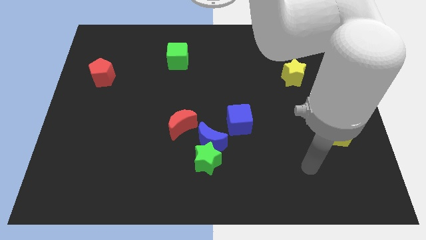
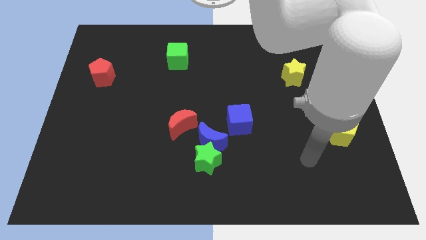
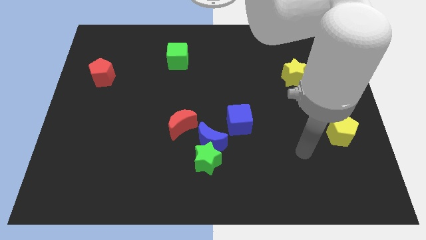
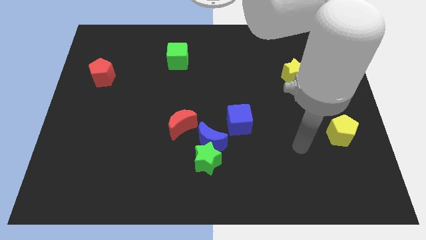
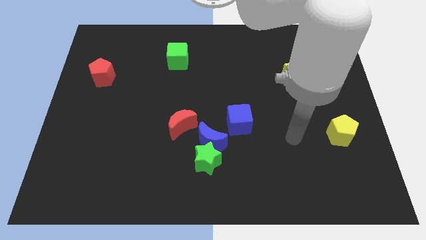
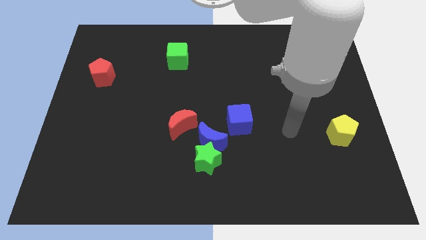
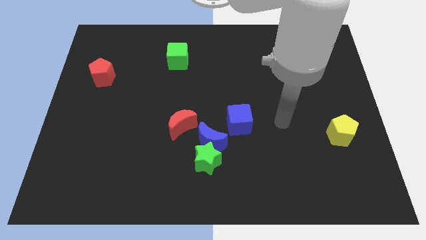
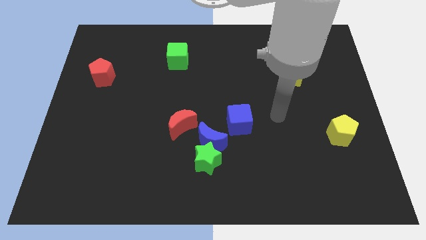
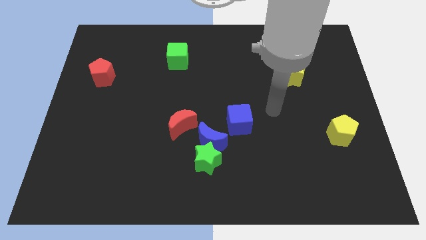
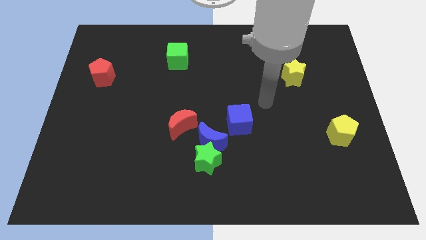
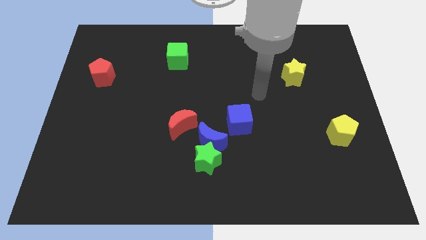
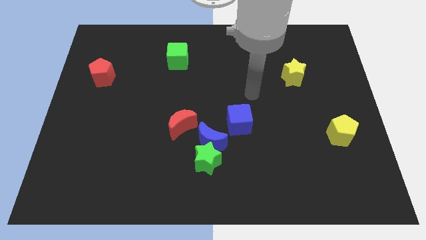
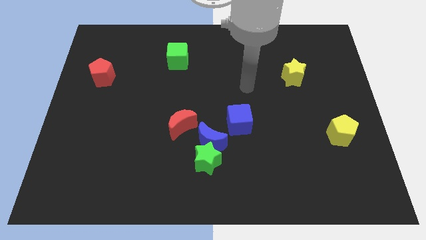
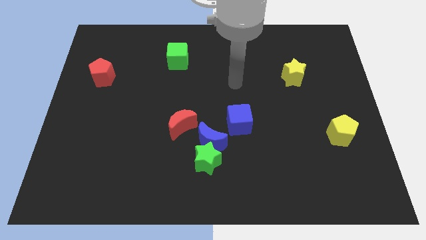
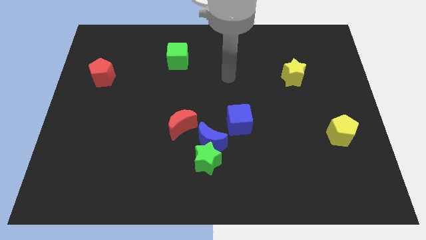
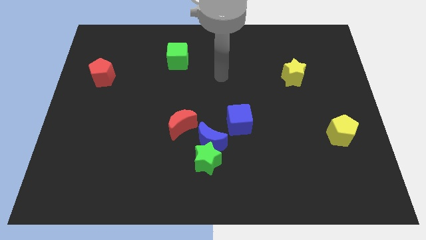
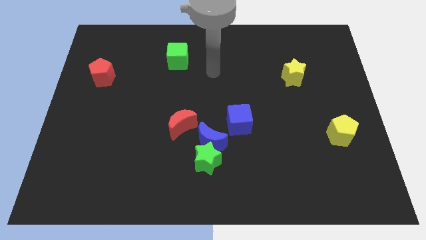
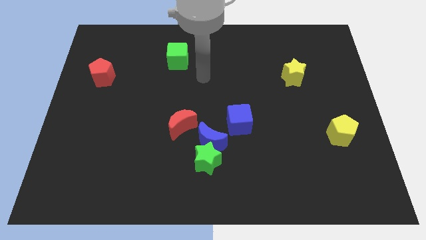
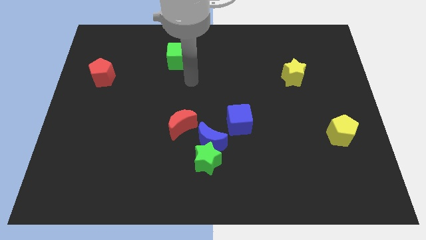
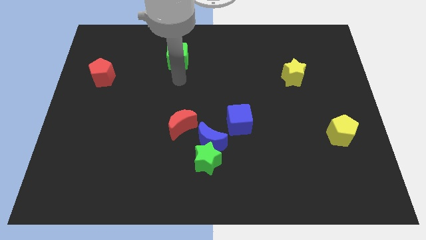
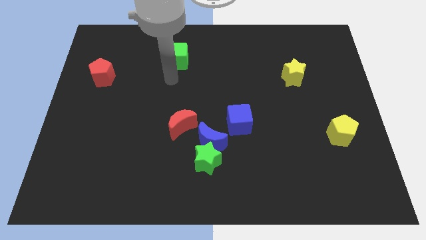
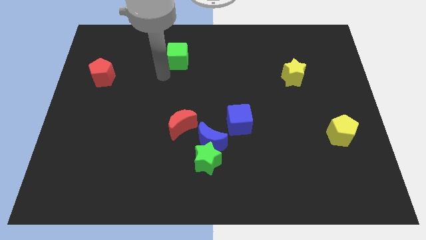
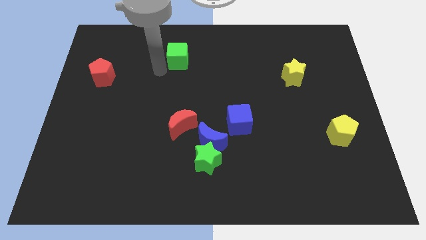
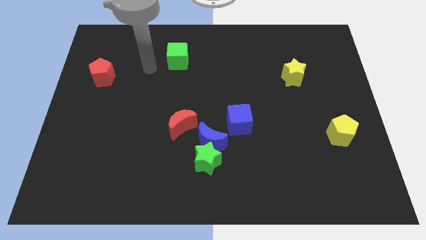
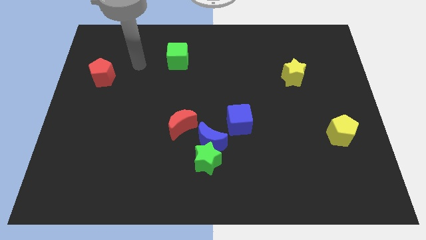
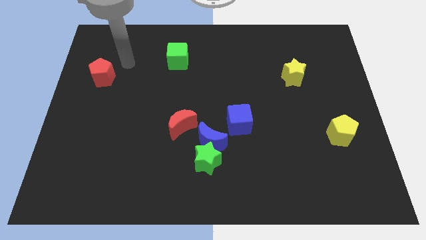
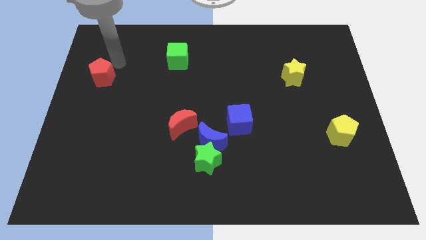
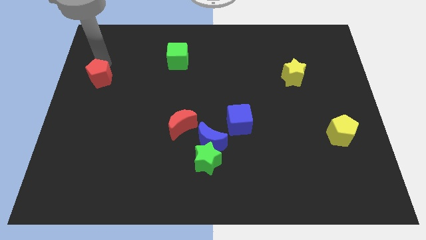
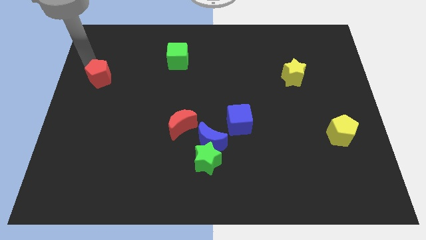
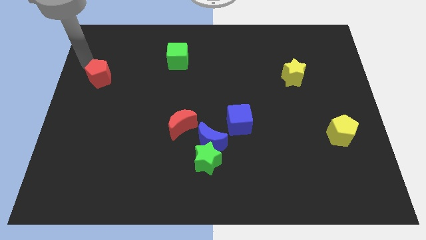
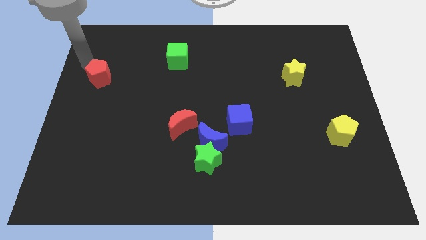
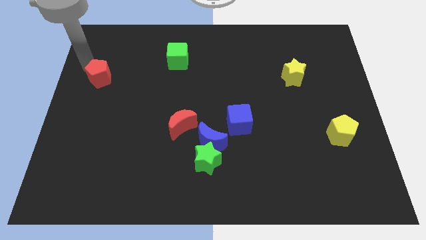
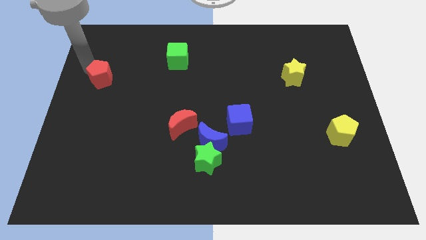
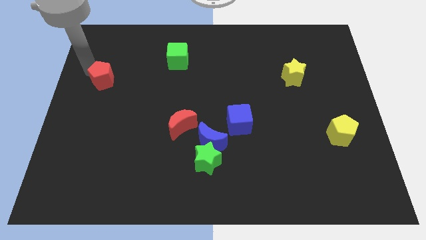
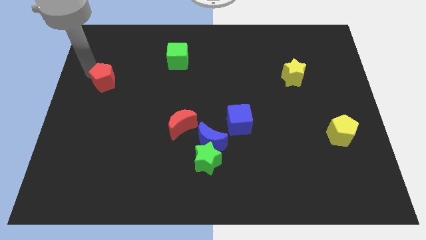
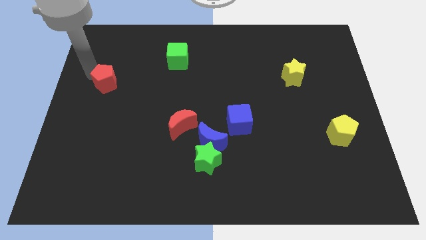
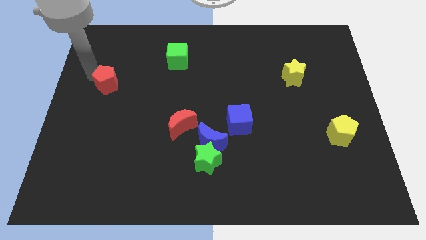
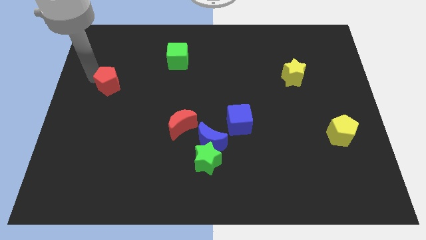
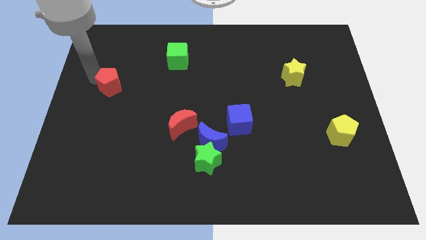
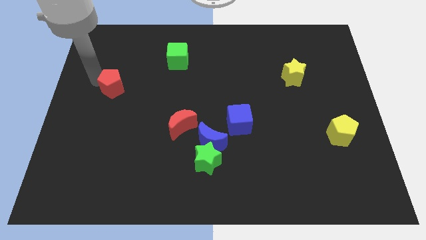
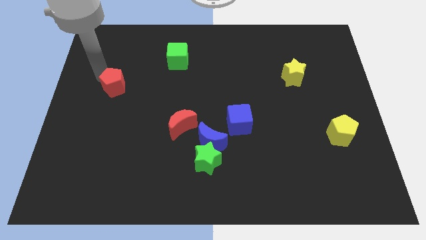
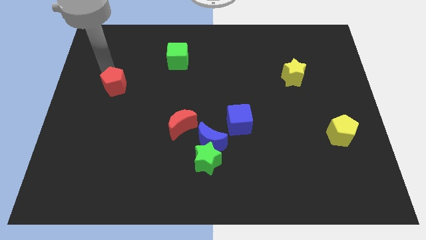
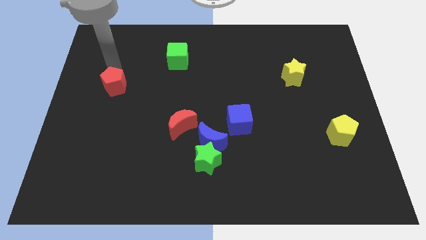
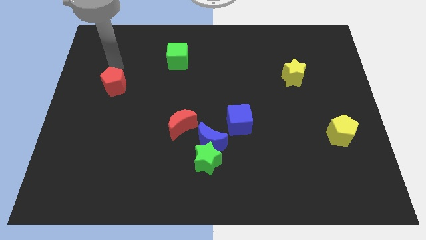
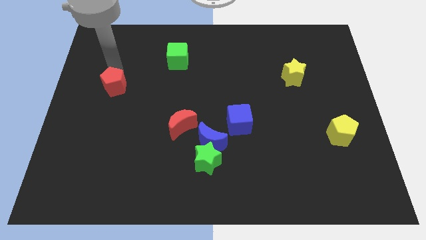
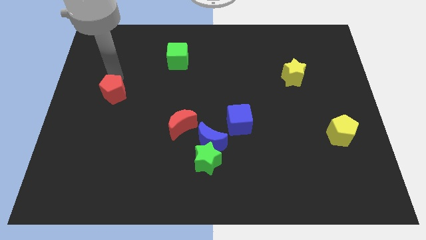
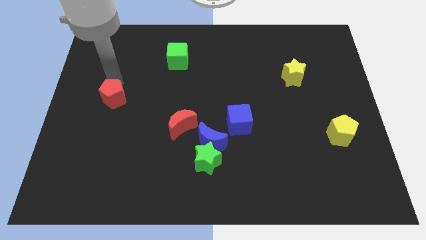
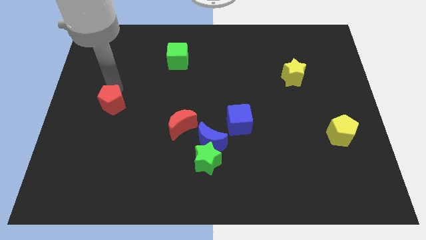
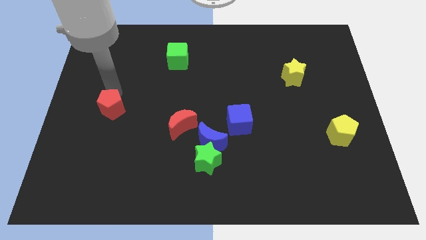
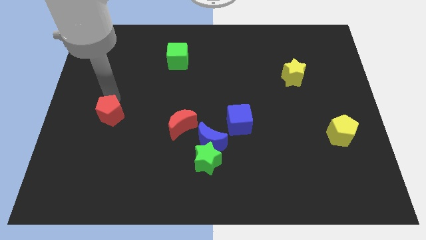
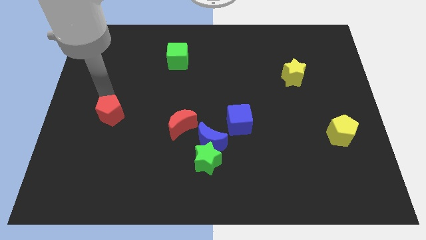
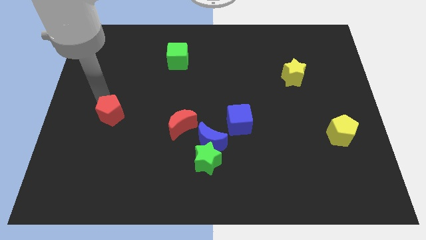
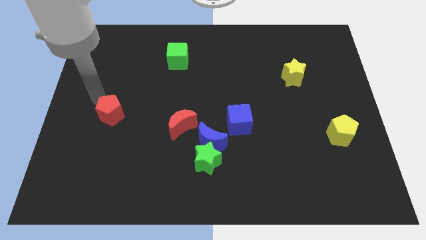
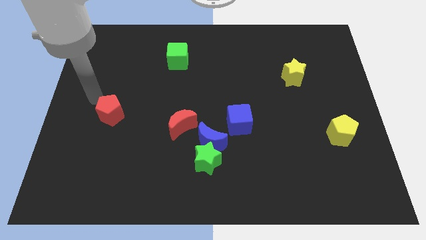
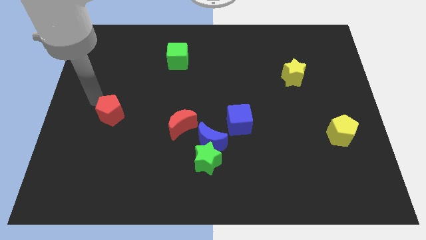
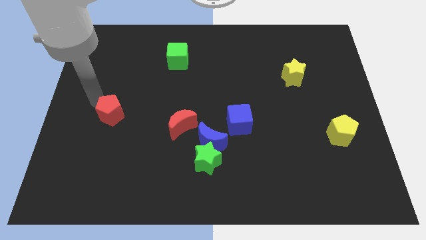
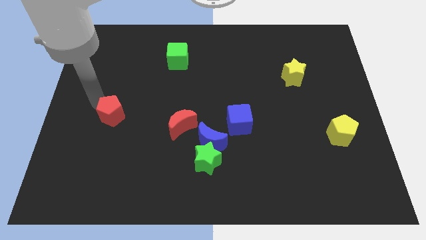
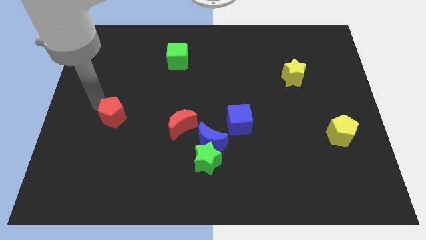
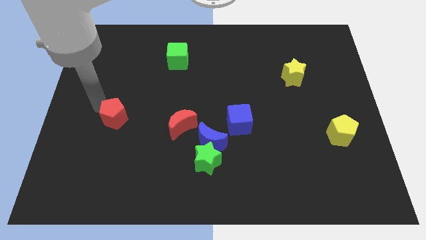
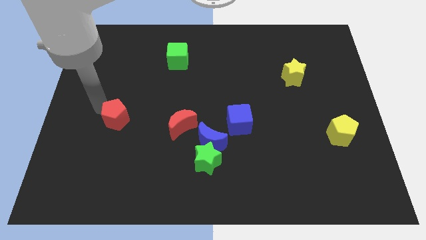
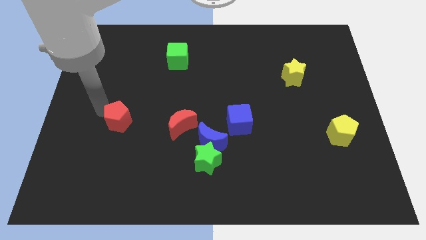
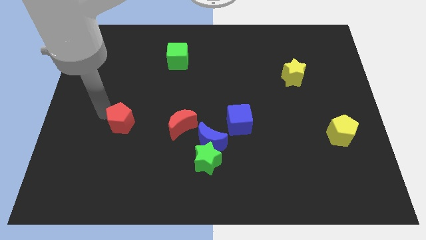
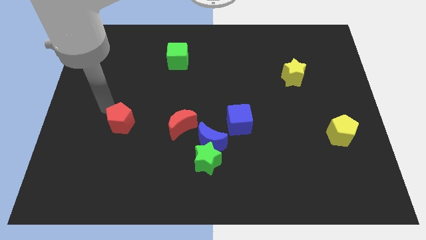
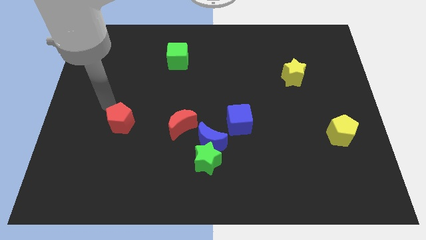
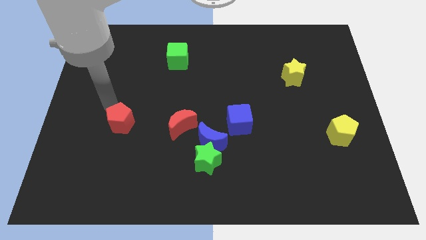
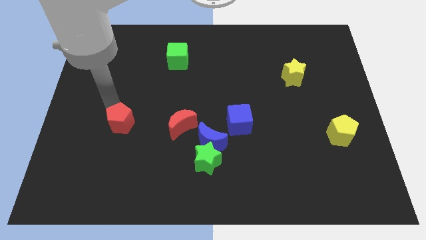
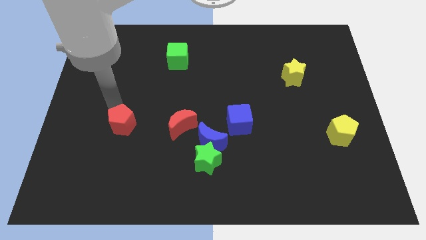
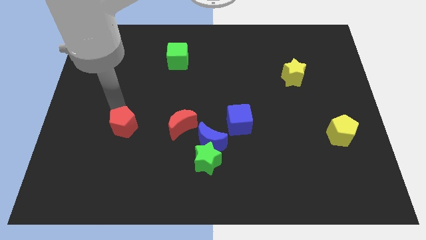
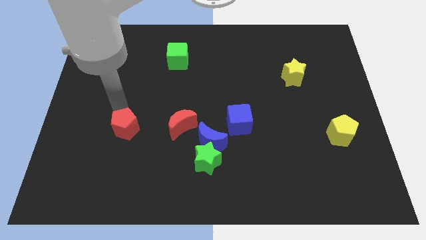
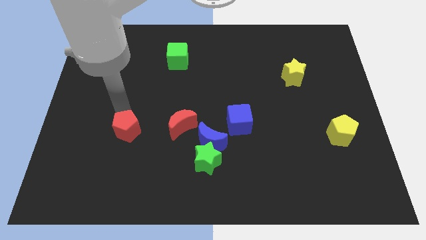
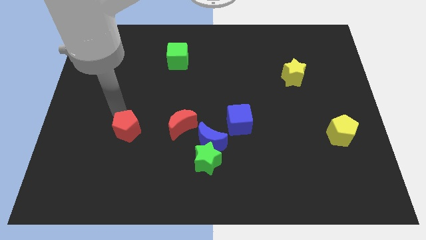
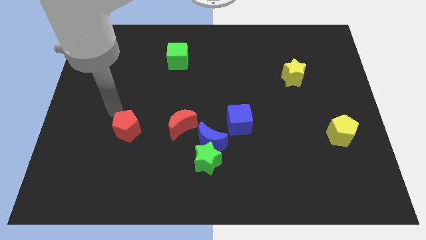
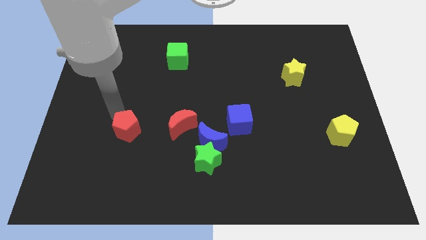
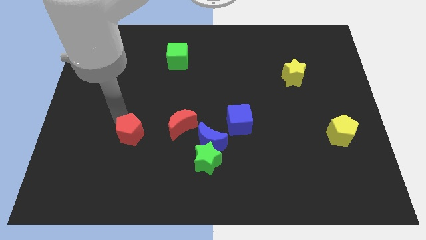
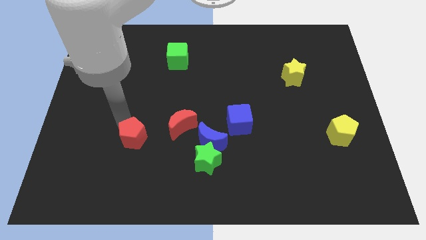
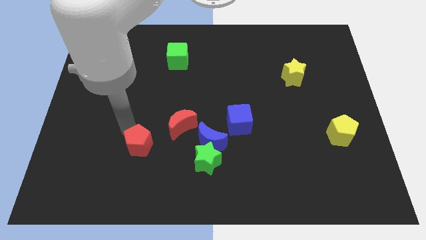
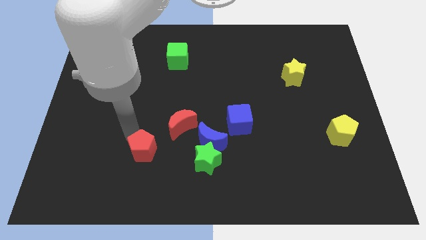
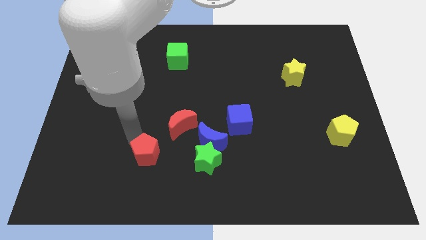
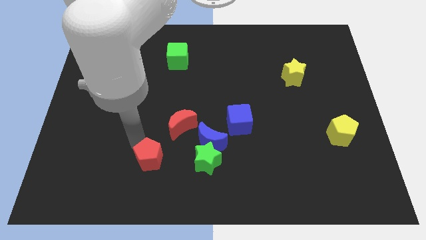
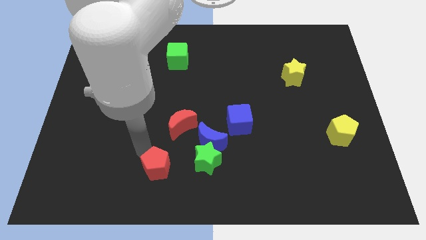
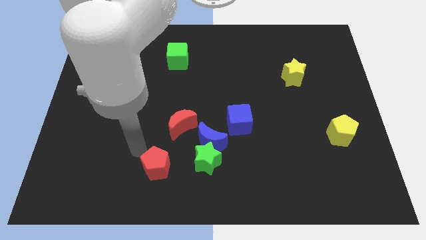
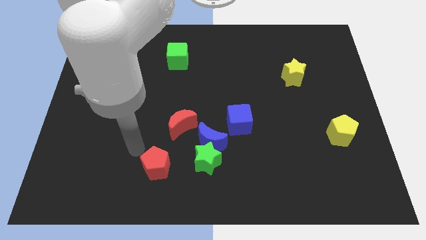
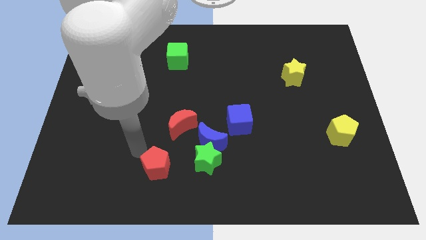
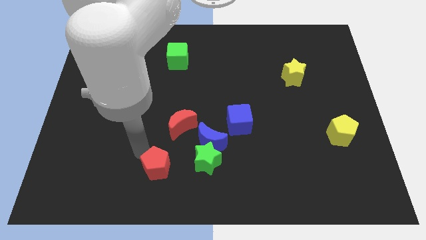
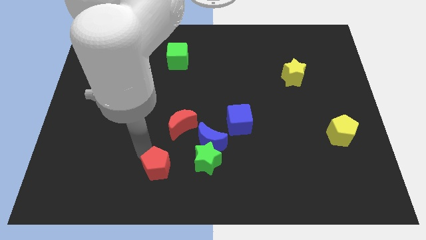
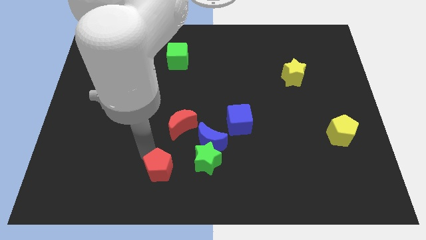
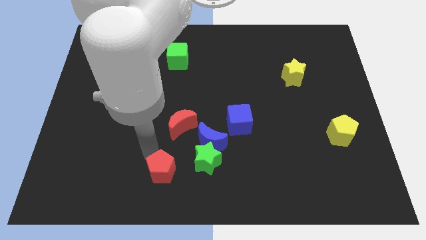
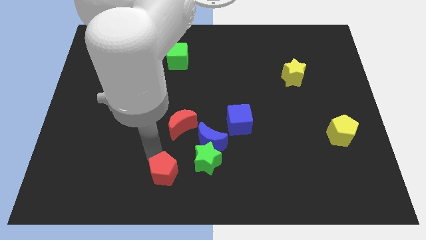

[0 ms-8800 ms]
push the red pentagon diagonally down and to the left of the green star
